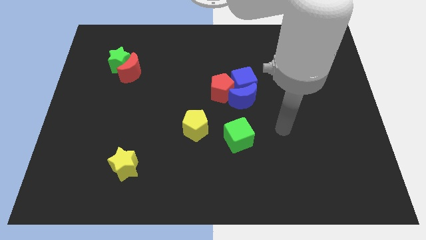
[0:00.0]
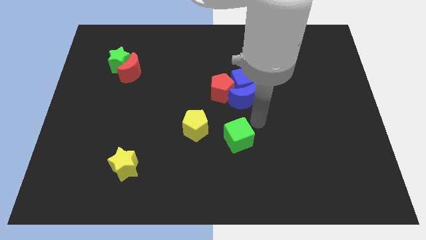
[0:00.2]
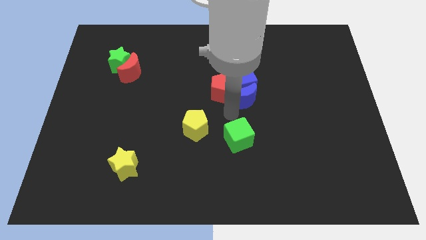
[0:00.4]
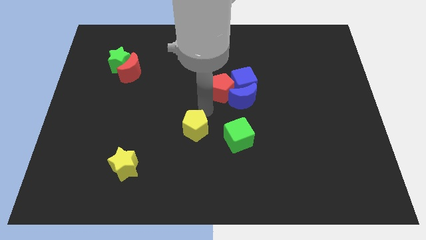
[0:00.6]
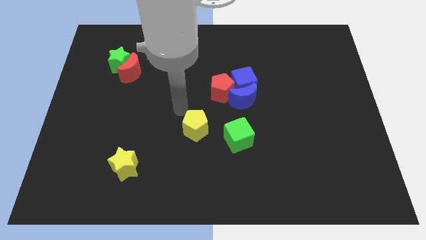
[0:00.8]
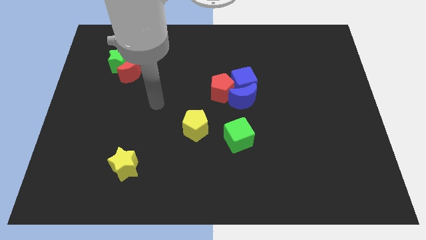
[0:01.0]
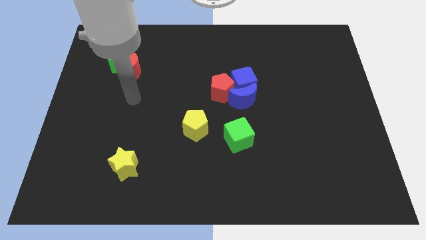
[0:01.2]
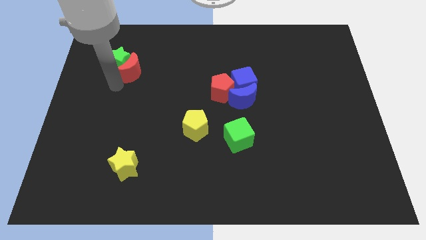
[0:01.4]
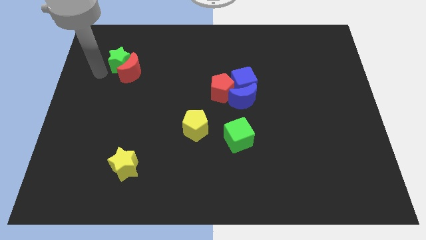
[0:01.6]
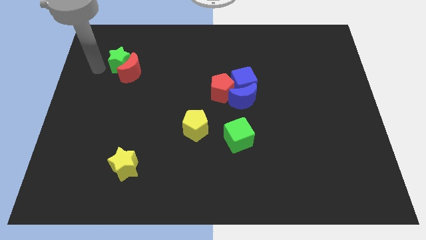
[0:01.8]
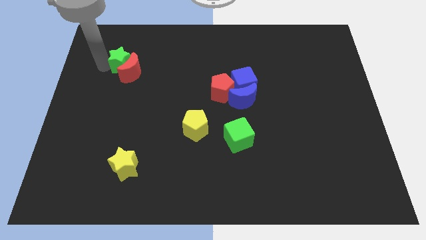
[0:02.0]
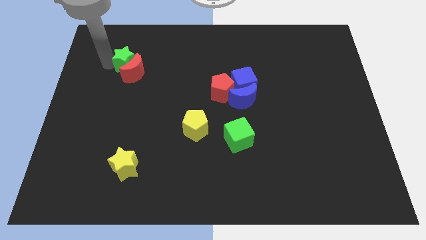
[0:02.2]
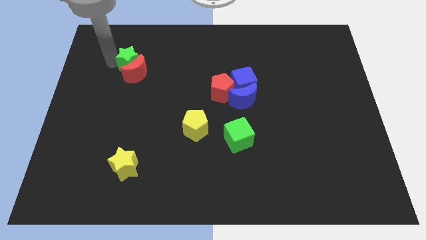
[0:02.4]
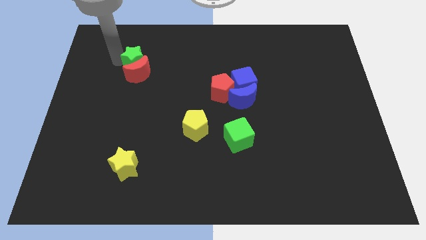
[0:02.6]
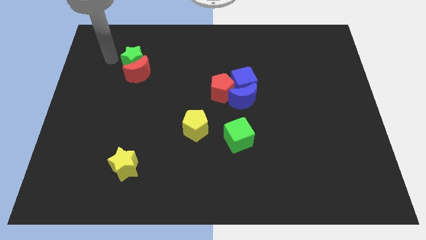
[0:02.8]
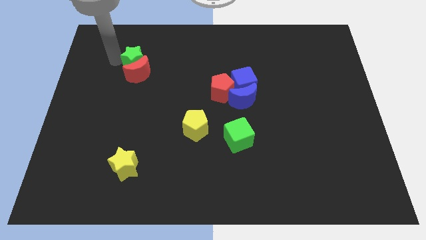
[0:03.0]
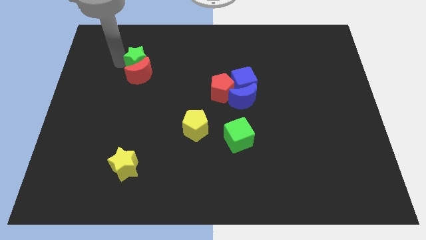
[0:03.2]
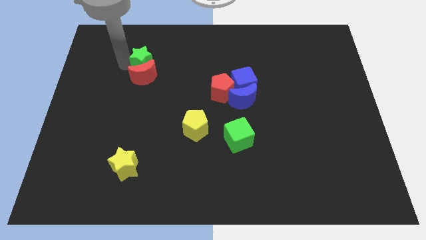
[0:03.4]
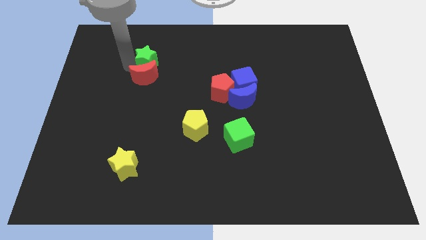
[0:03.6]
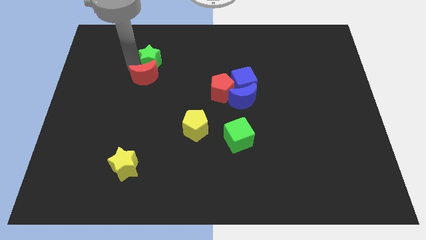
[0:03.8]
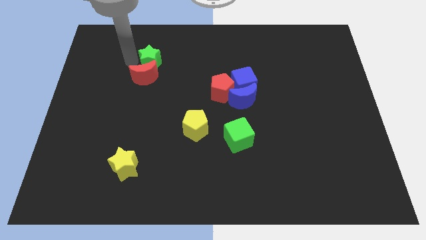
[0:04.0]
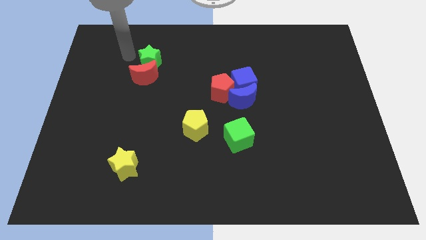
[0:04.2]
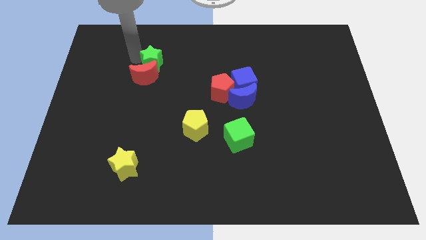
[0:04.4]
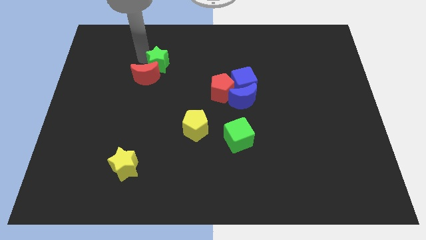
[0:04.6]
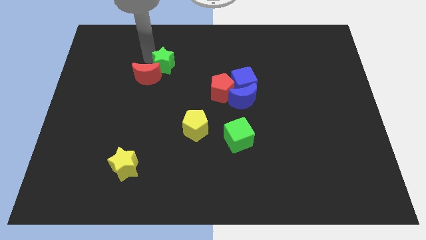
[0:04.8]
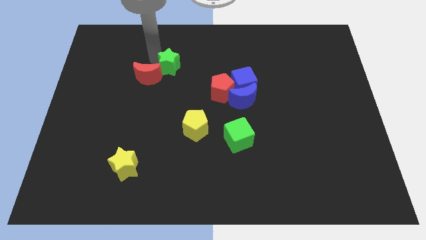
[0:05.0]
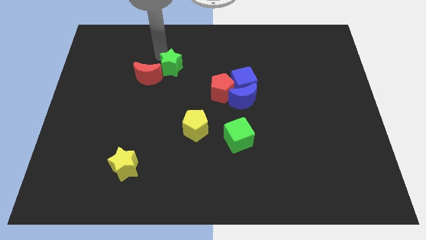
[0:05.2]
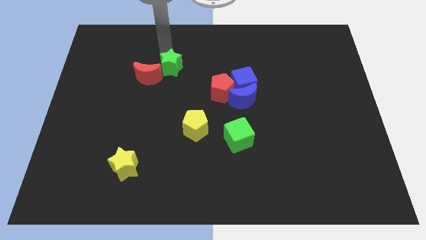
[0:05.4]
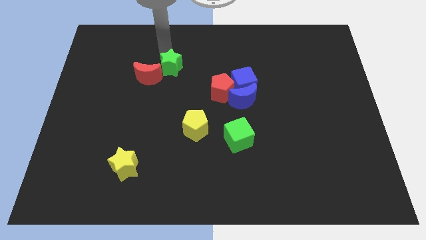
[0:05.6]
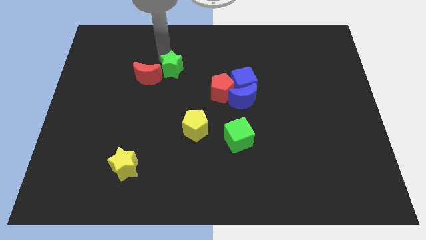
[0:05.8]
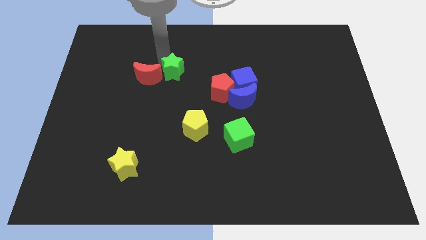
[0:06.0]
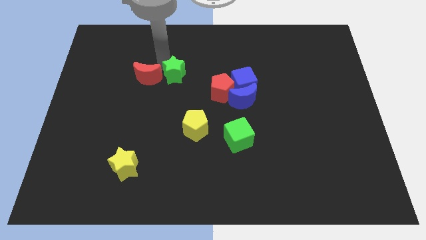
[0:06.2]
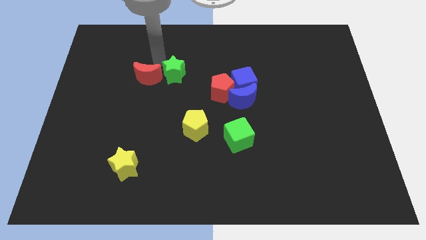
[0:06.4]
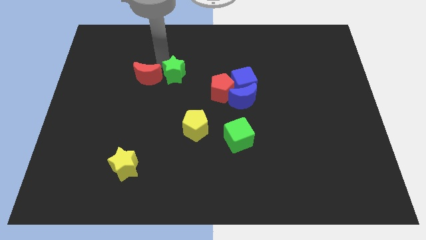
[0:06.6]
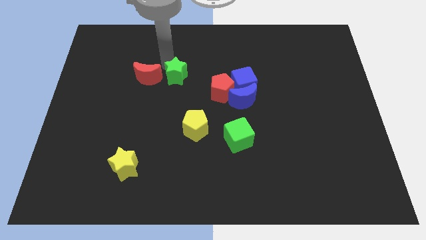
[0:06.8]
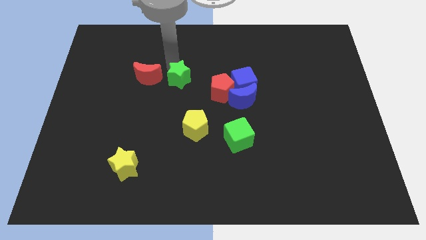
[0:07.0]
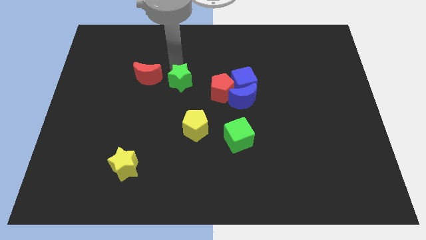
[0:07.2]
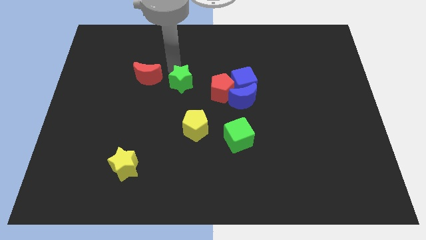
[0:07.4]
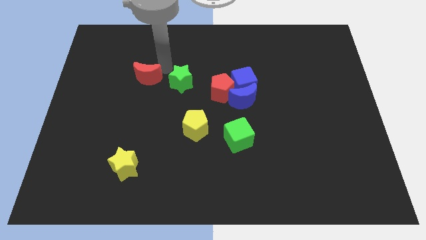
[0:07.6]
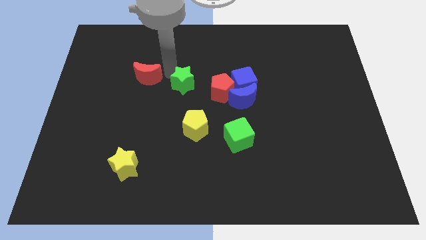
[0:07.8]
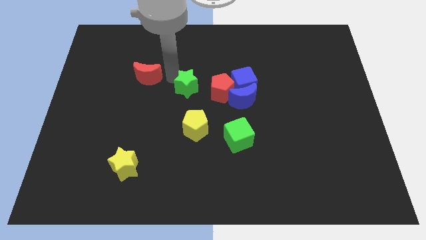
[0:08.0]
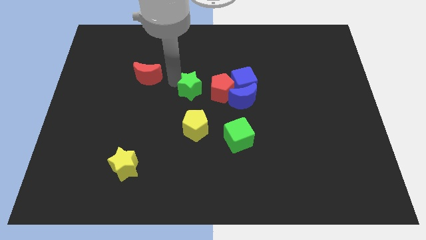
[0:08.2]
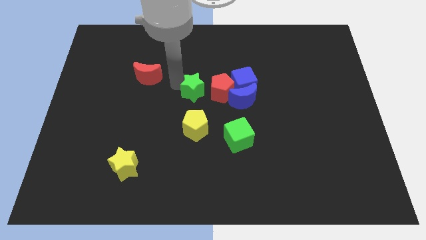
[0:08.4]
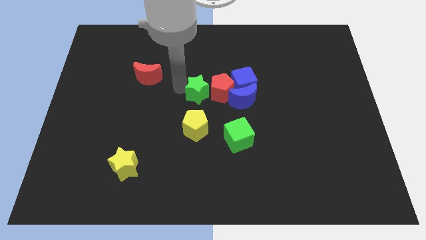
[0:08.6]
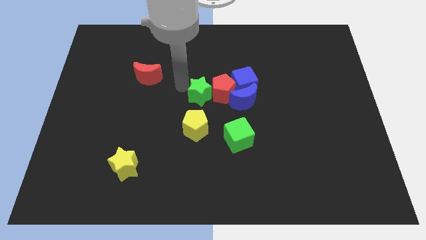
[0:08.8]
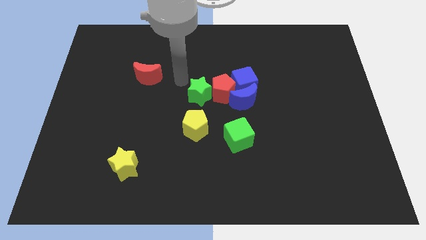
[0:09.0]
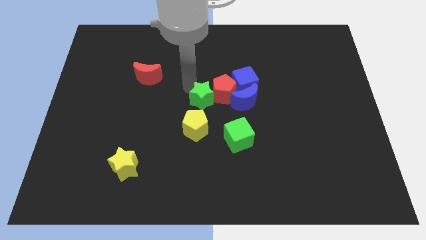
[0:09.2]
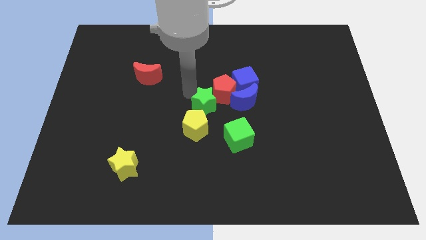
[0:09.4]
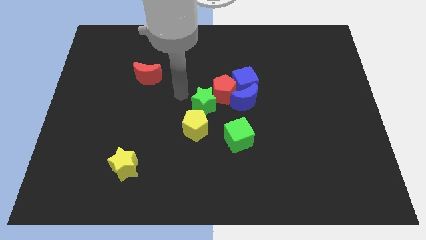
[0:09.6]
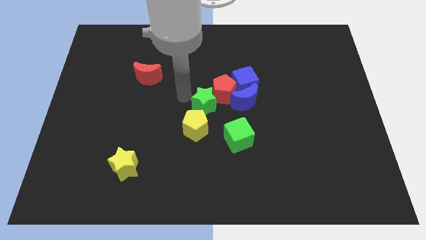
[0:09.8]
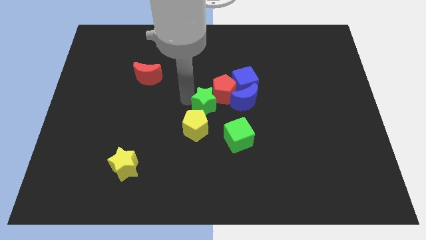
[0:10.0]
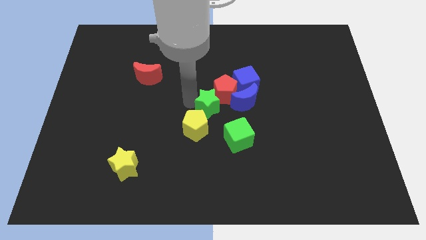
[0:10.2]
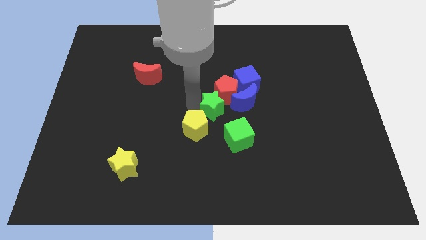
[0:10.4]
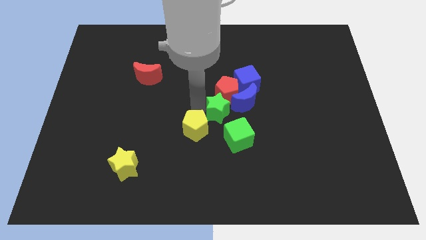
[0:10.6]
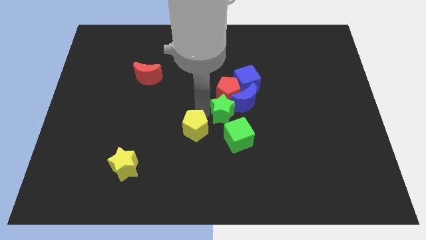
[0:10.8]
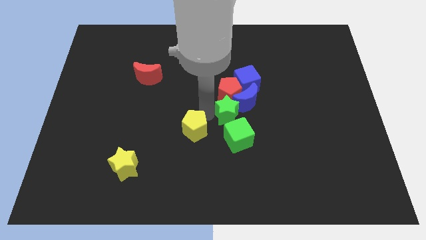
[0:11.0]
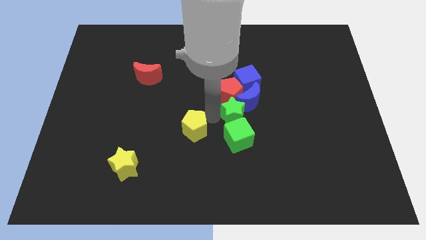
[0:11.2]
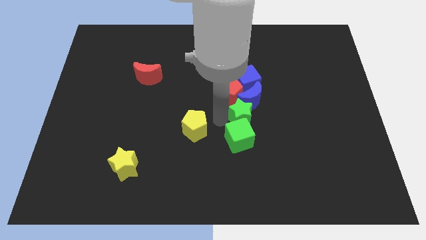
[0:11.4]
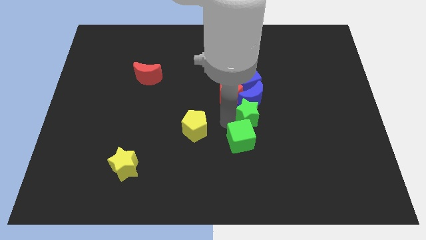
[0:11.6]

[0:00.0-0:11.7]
move the green star to the bottom right of the blue moon

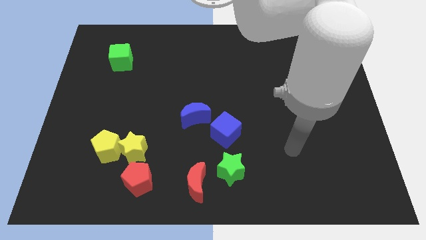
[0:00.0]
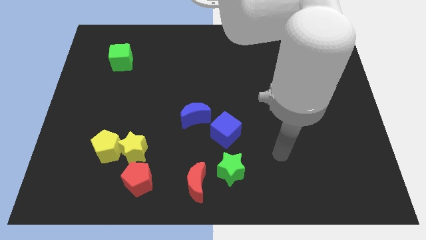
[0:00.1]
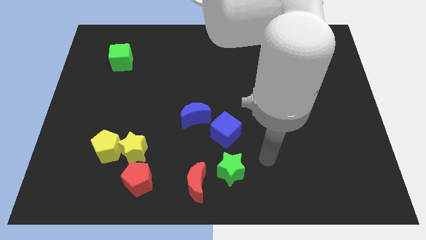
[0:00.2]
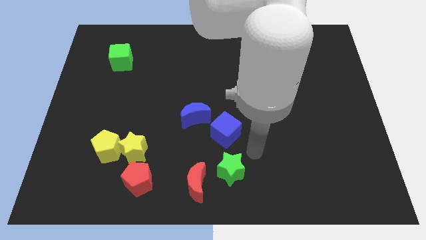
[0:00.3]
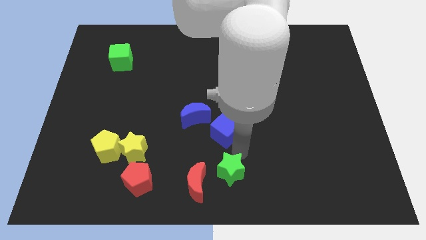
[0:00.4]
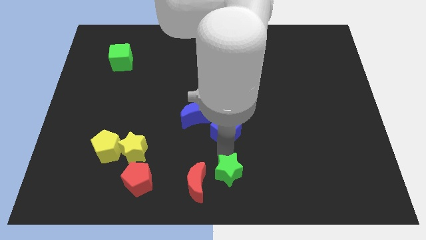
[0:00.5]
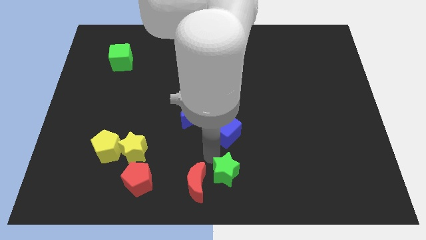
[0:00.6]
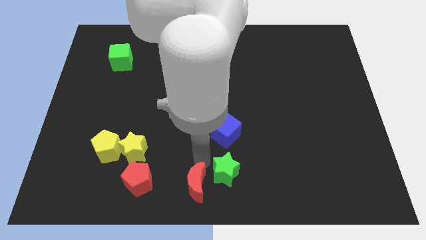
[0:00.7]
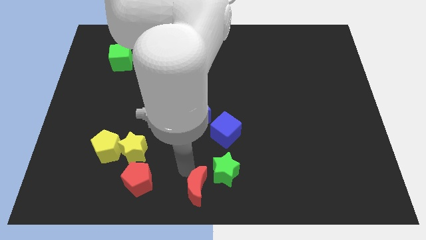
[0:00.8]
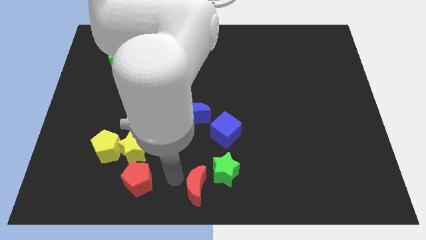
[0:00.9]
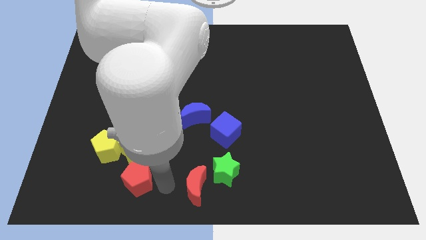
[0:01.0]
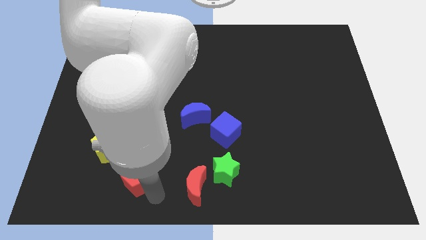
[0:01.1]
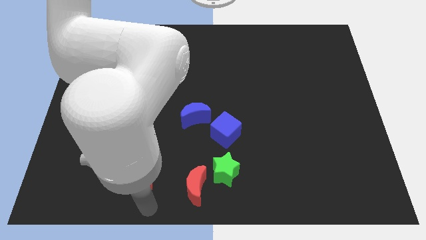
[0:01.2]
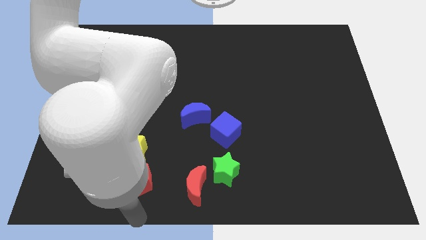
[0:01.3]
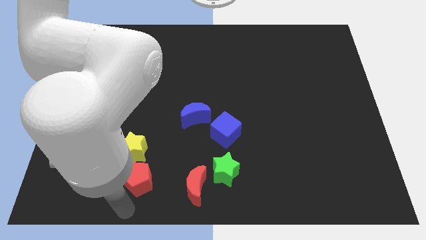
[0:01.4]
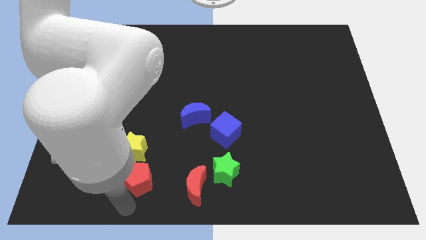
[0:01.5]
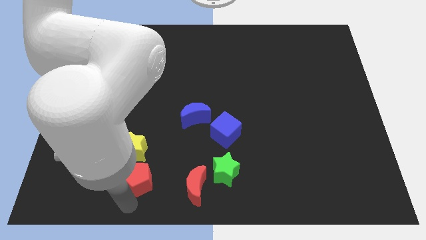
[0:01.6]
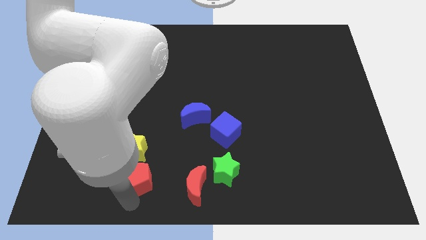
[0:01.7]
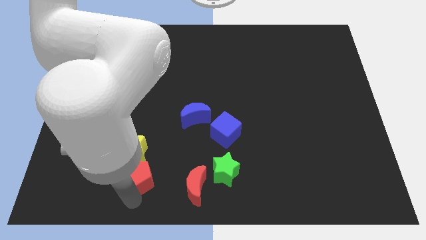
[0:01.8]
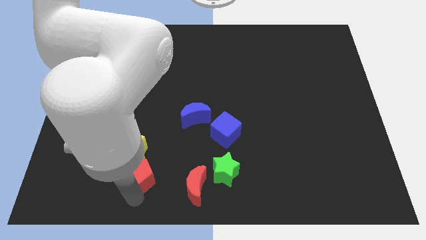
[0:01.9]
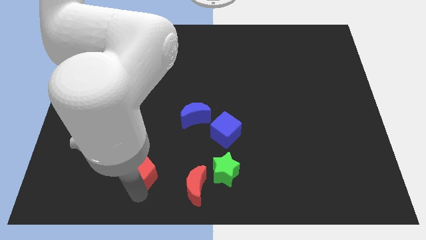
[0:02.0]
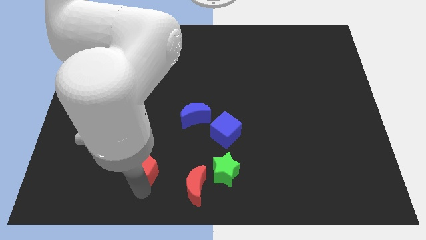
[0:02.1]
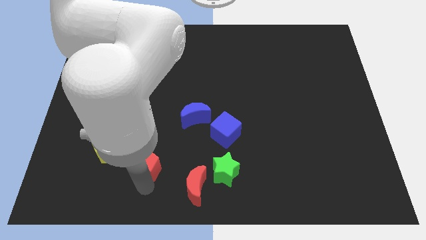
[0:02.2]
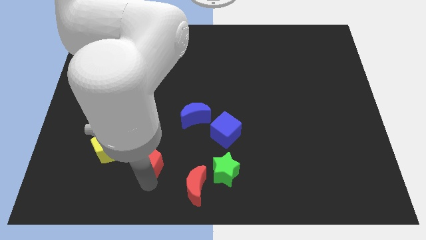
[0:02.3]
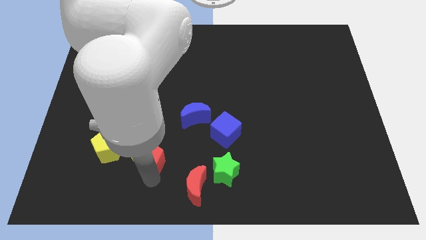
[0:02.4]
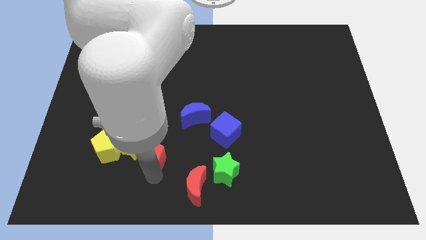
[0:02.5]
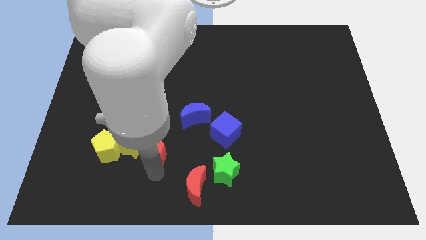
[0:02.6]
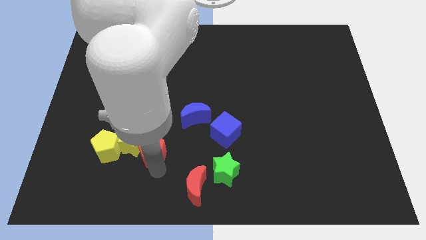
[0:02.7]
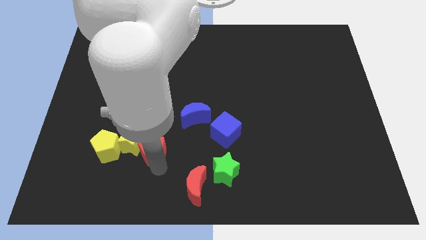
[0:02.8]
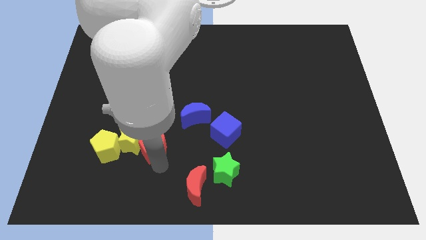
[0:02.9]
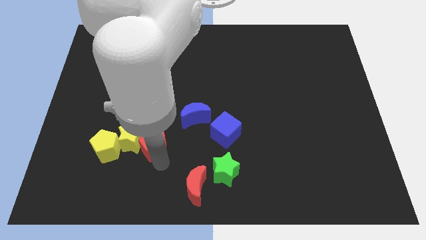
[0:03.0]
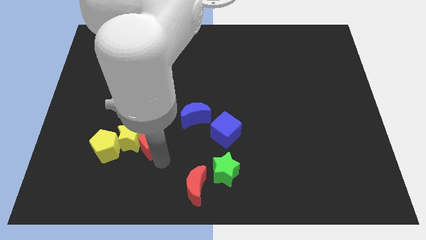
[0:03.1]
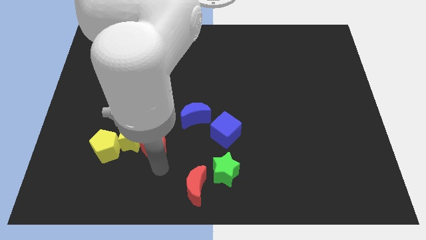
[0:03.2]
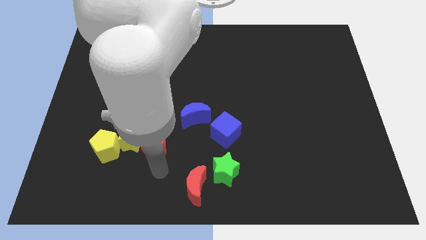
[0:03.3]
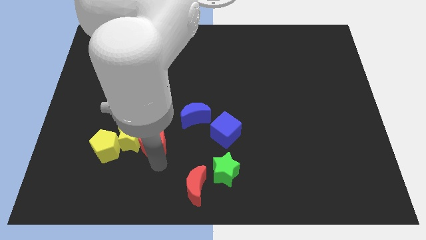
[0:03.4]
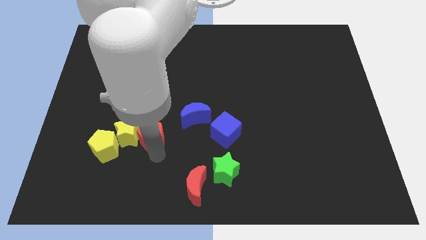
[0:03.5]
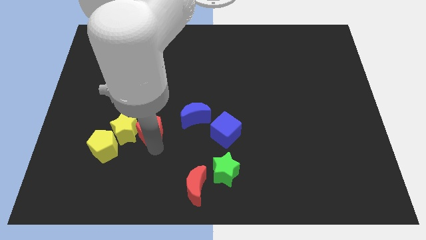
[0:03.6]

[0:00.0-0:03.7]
move the red pentagon to the left side of the blue moon
